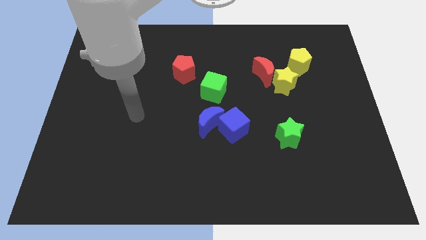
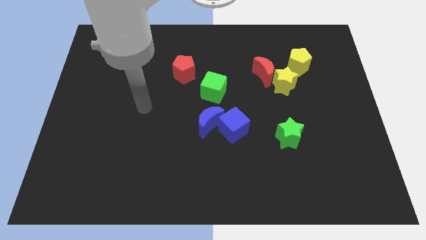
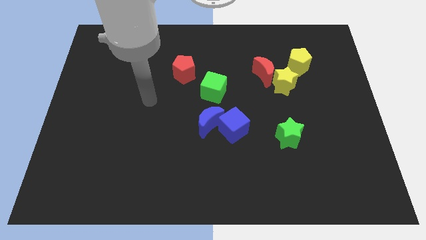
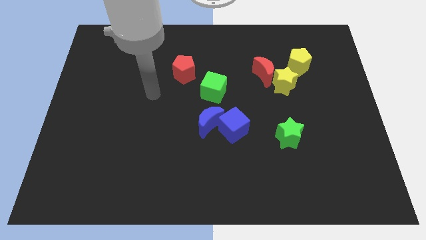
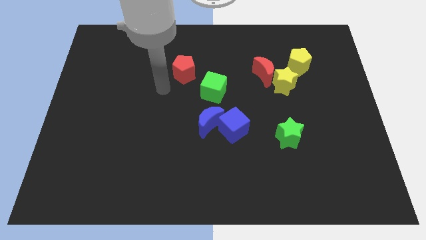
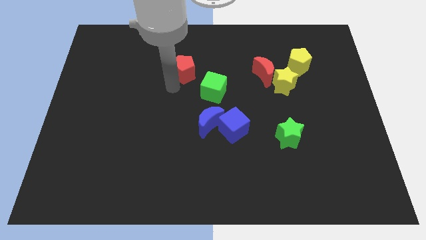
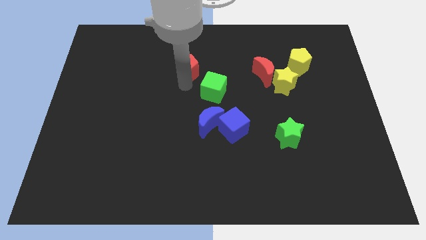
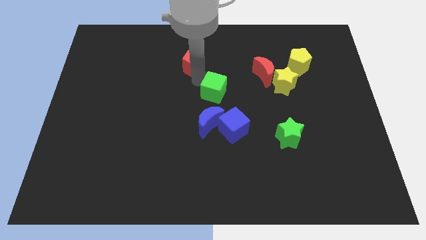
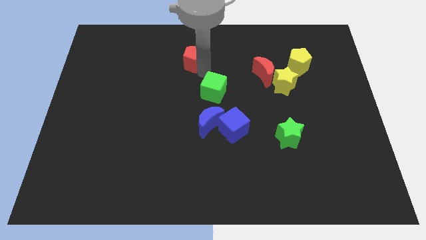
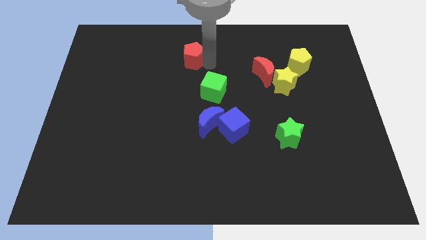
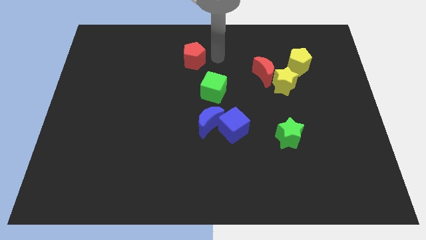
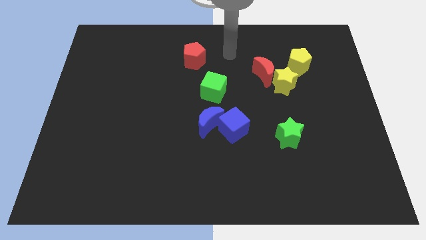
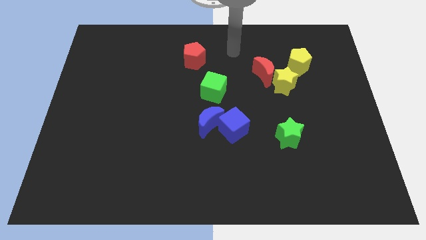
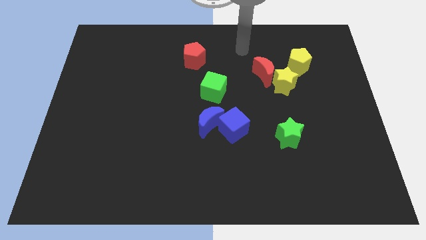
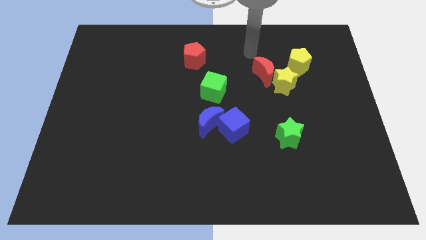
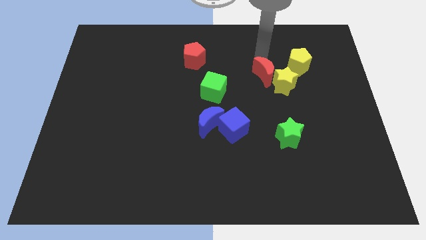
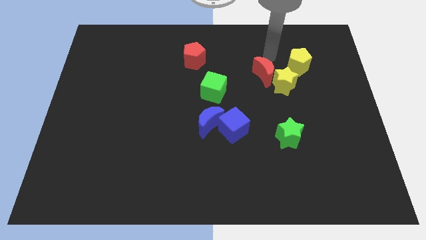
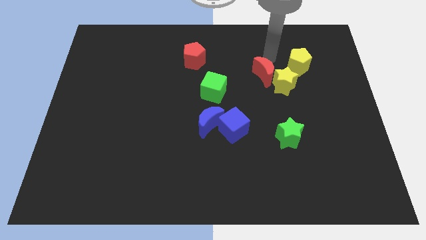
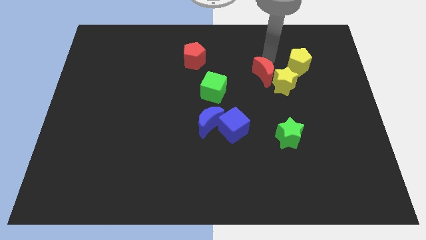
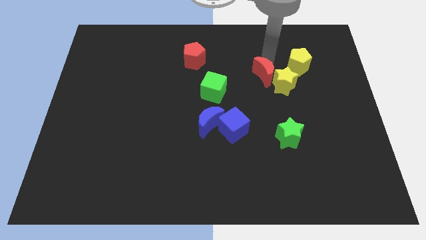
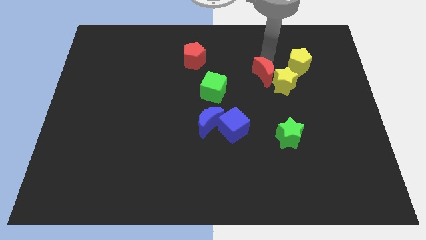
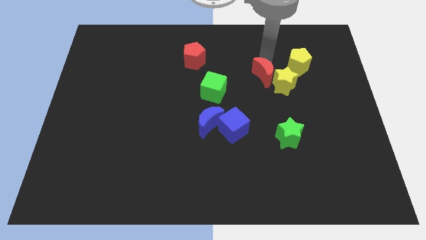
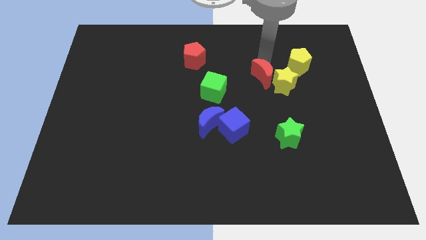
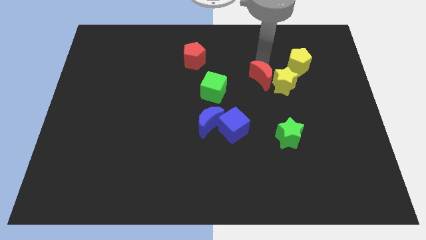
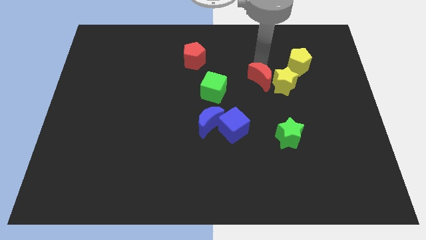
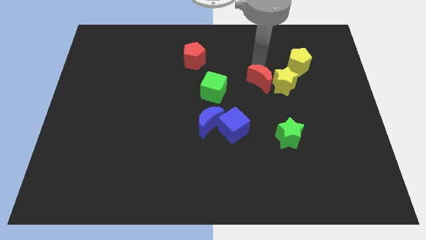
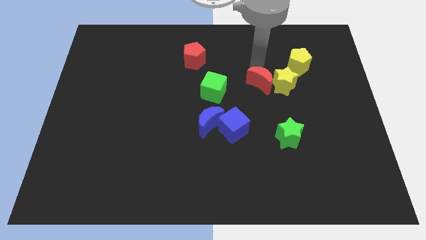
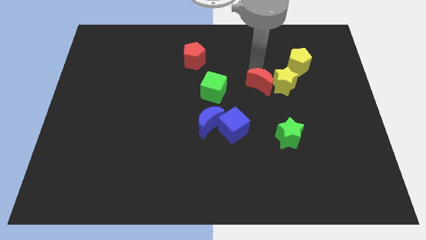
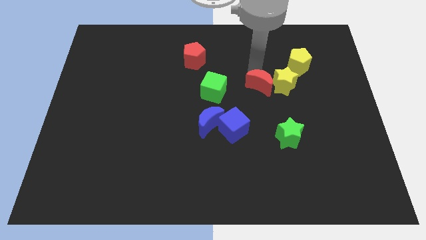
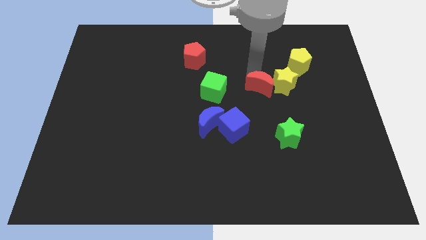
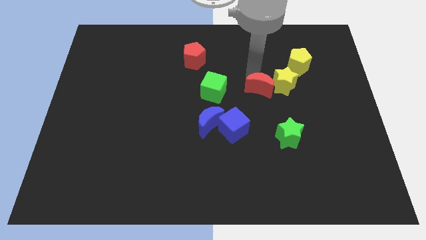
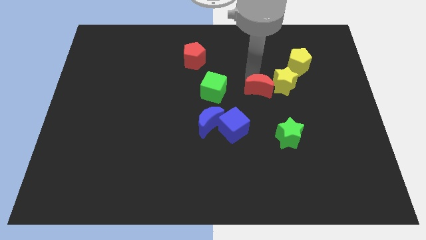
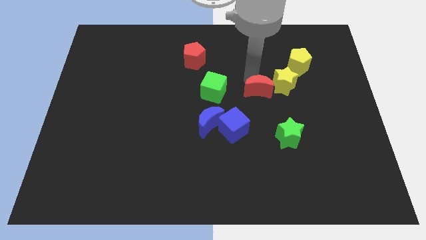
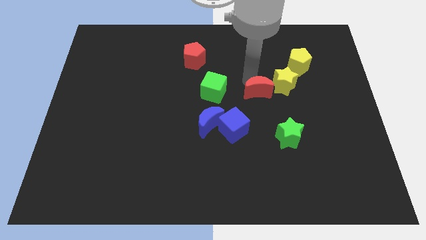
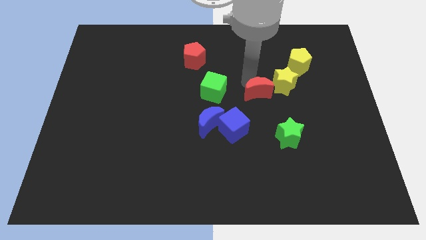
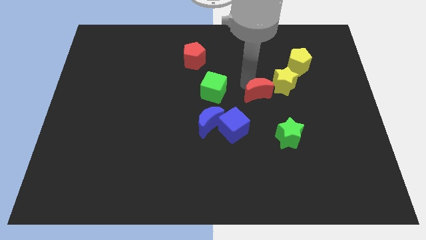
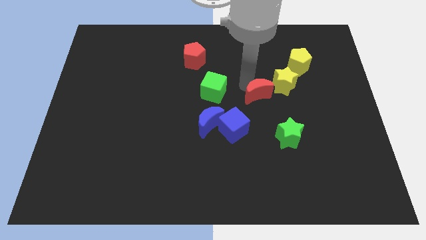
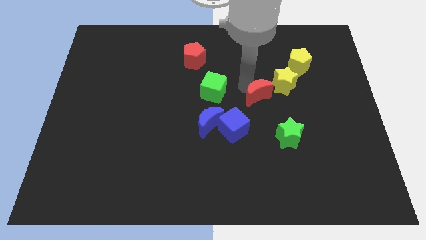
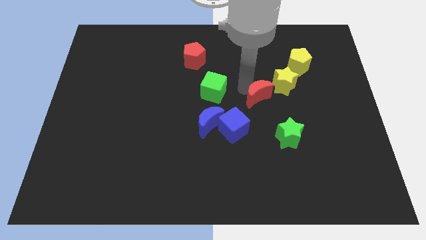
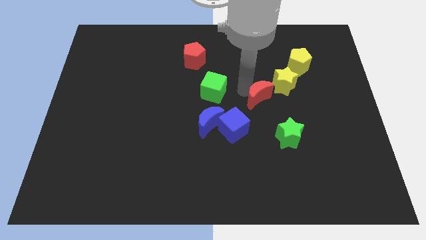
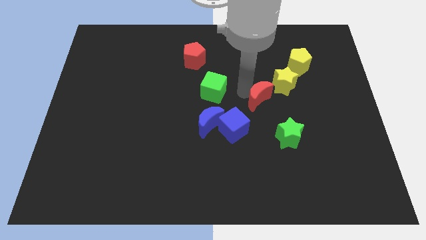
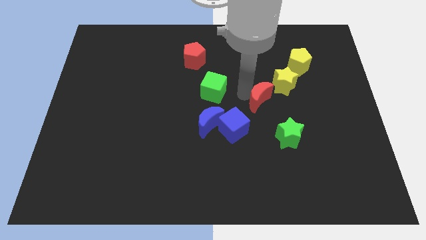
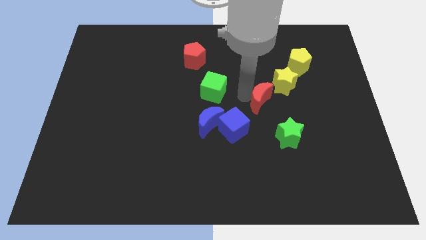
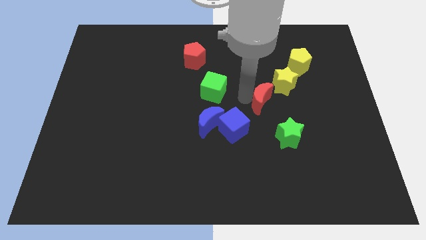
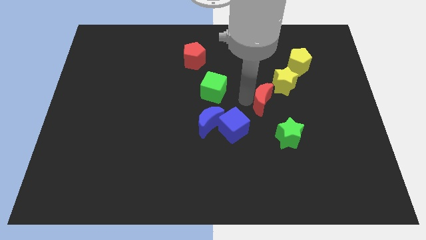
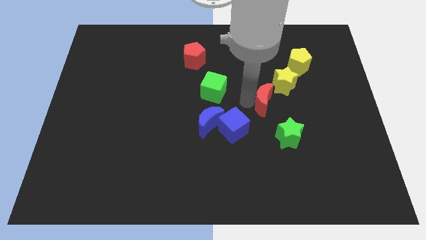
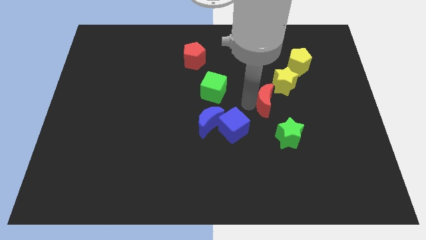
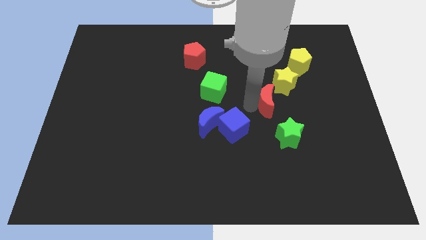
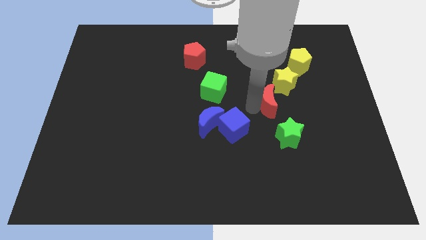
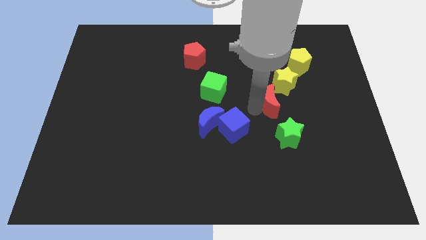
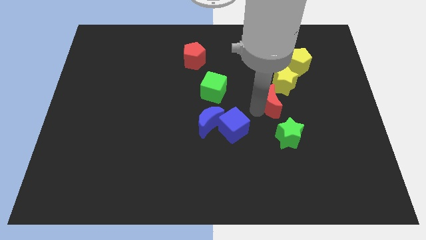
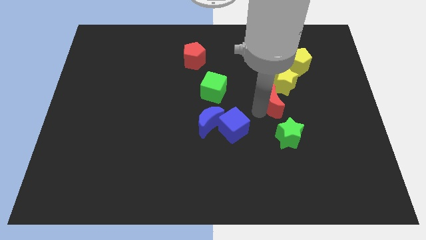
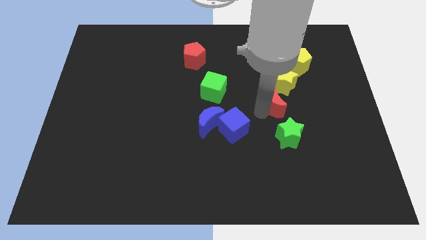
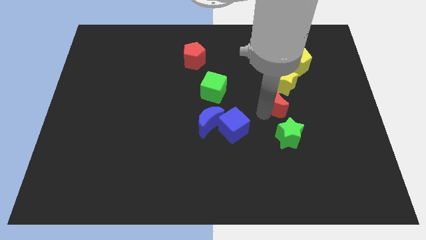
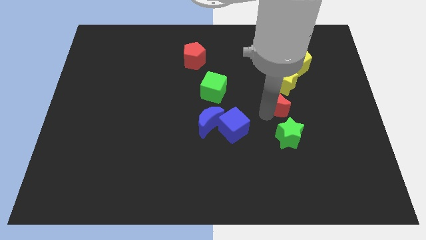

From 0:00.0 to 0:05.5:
push the red moon a little down and right diagonally

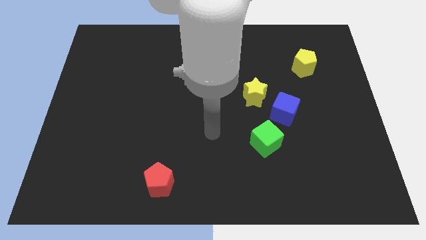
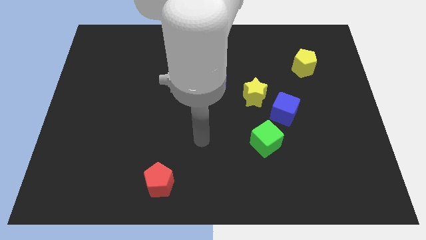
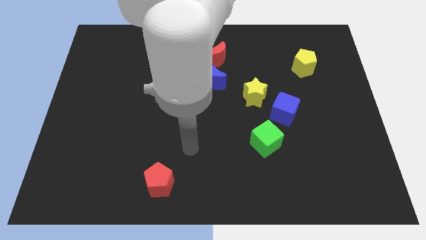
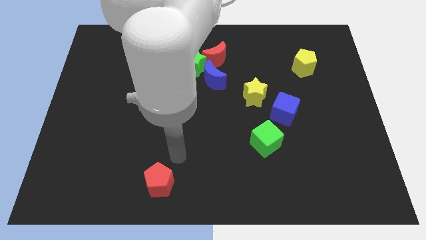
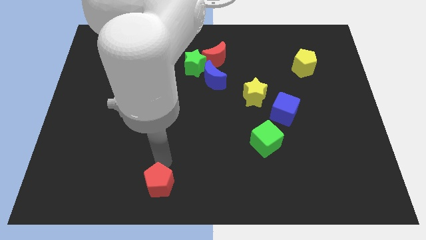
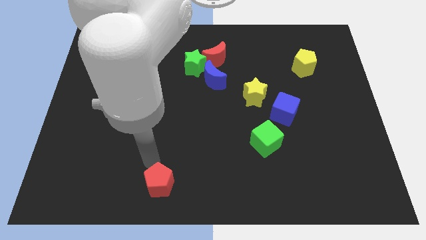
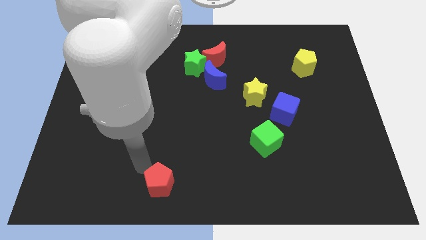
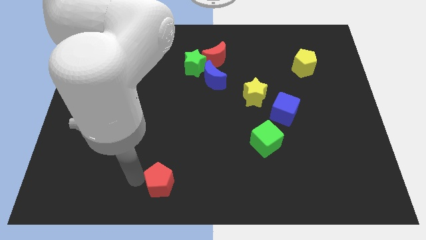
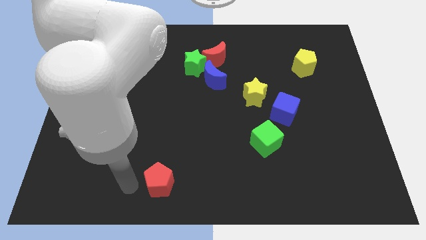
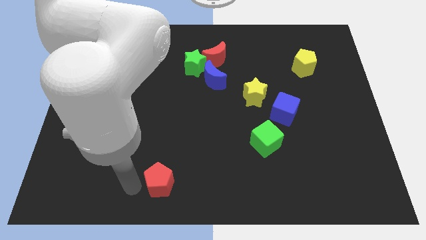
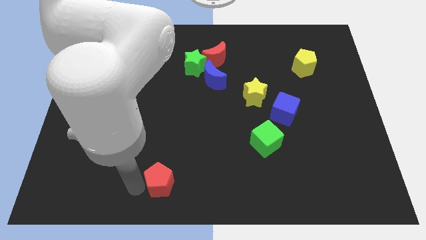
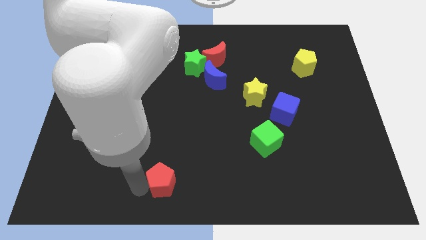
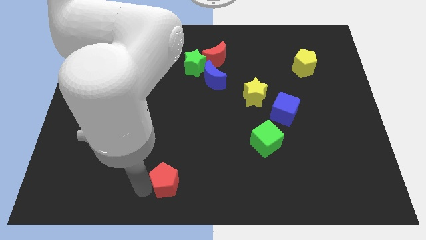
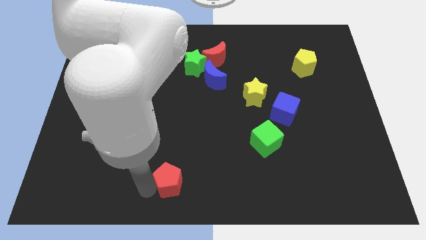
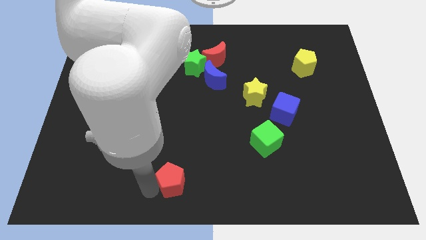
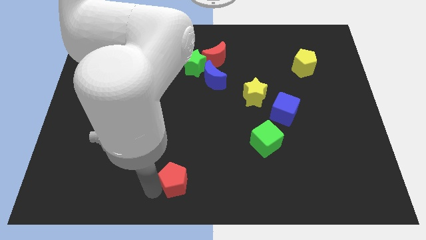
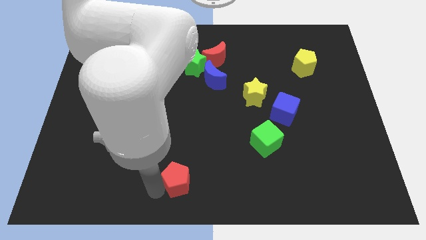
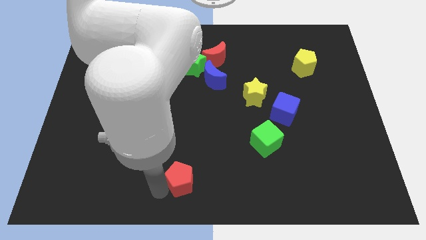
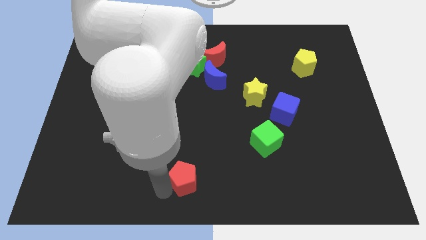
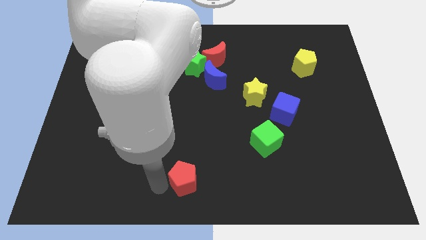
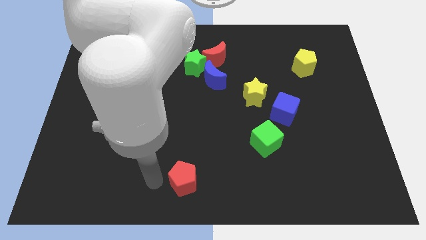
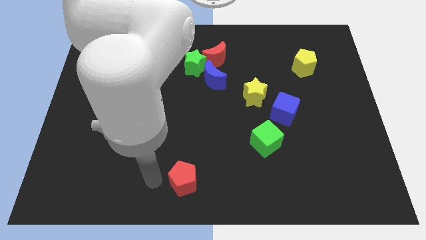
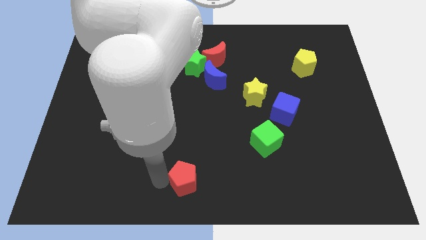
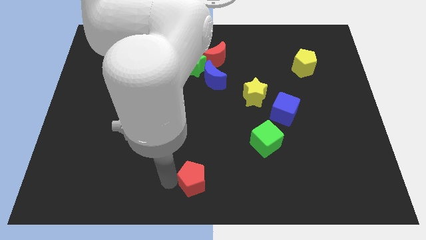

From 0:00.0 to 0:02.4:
slide the red pentagon right a little bit

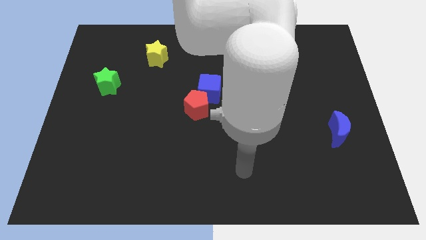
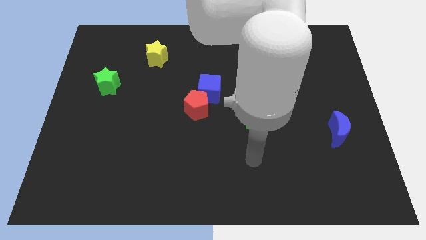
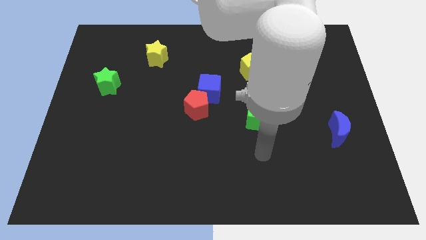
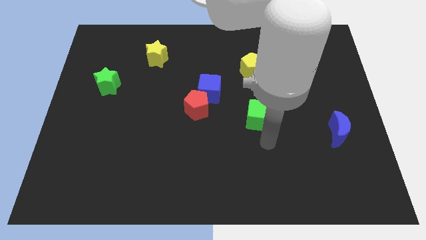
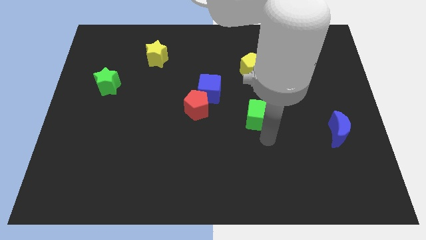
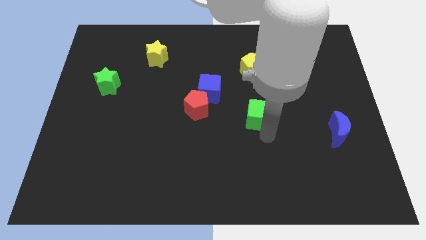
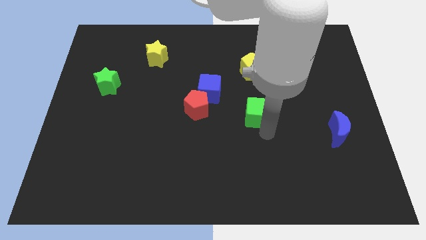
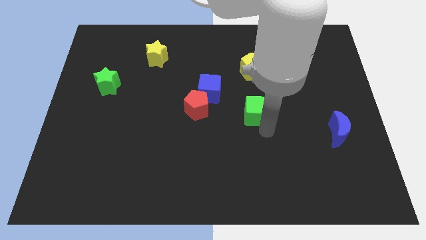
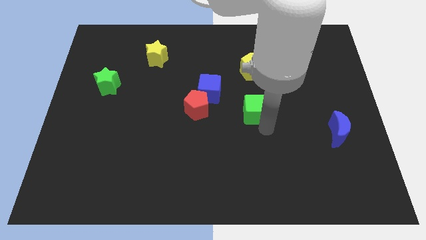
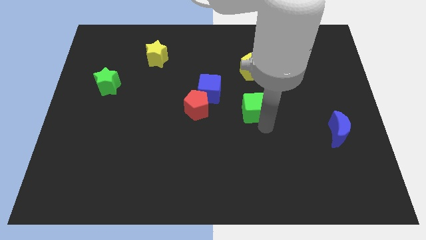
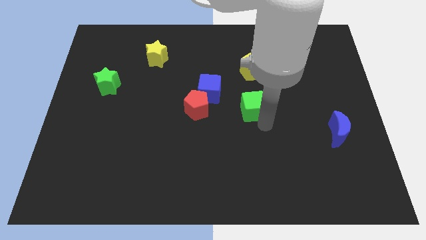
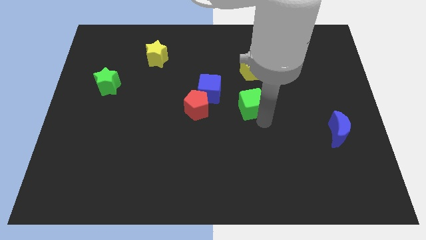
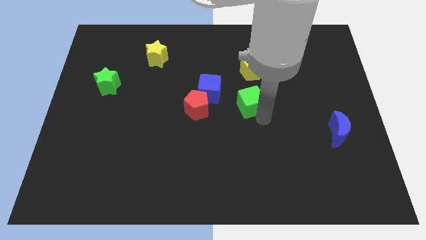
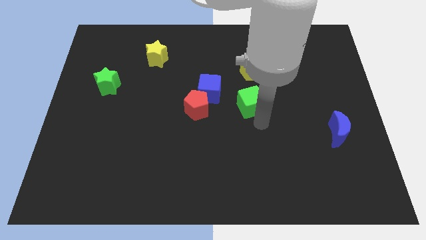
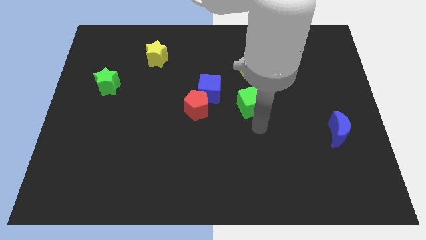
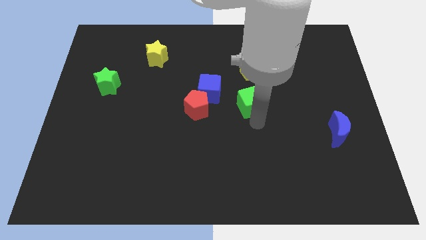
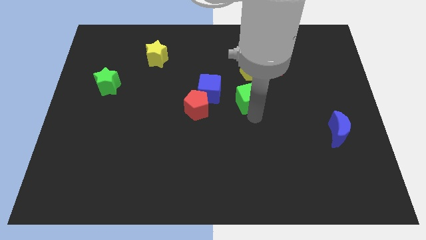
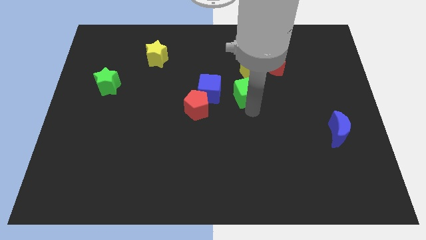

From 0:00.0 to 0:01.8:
move the green cube slightly upwards
